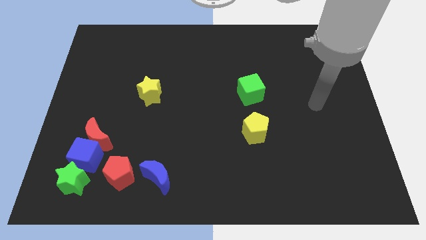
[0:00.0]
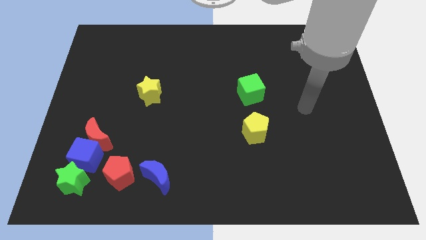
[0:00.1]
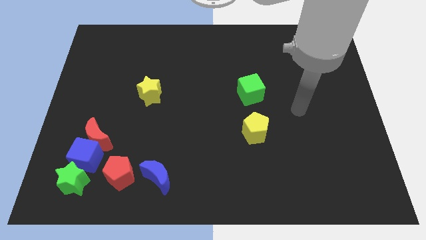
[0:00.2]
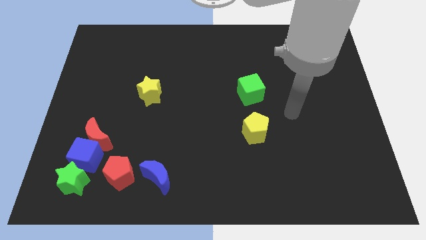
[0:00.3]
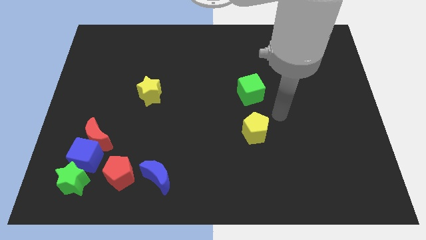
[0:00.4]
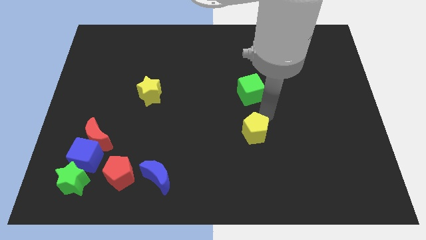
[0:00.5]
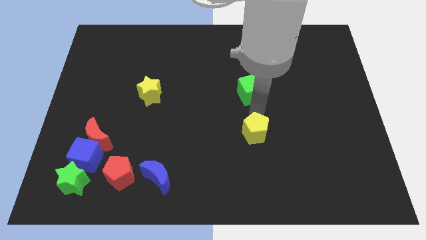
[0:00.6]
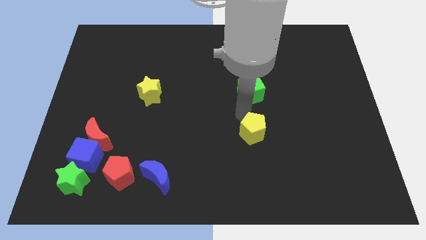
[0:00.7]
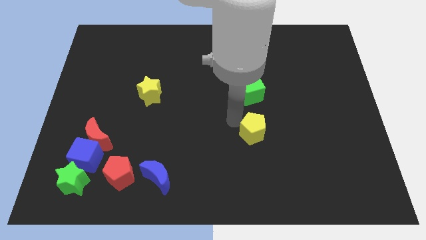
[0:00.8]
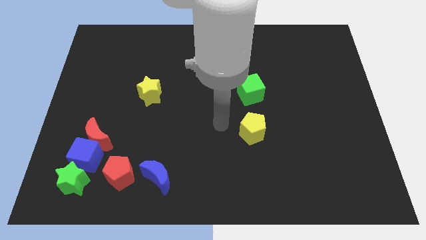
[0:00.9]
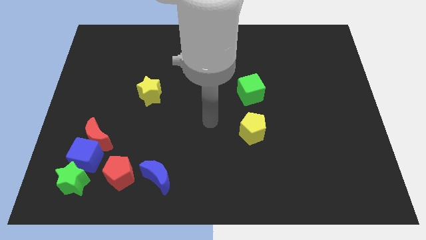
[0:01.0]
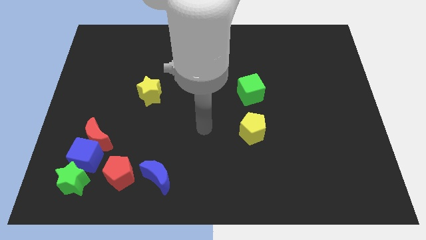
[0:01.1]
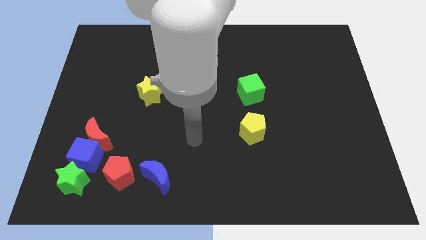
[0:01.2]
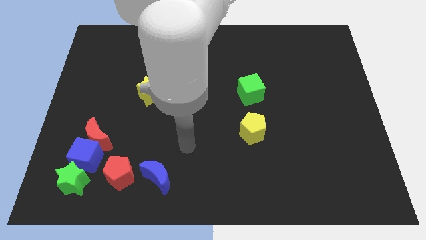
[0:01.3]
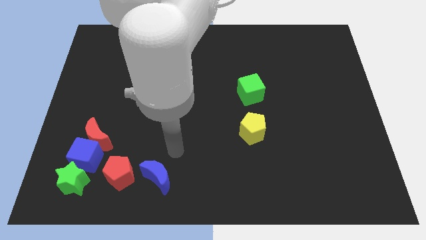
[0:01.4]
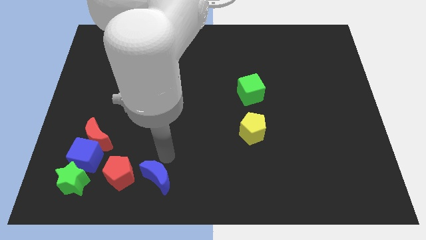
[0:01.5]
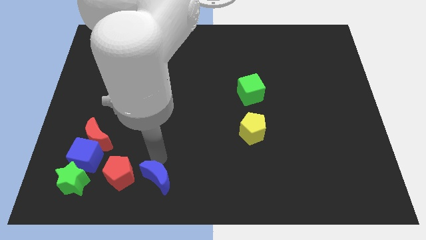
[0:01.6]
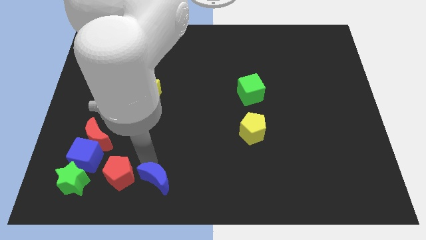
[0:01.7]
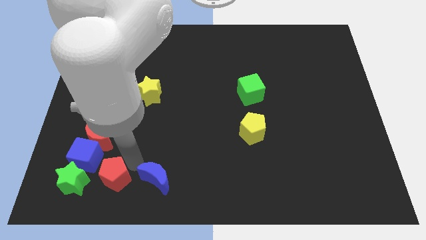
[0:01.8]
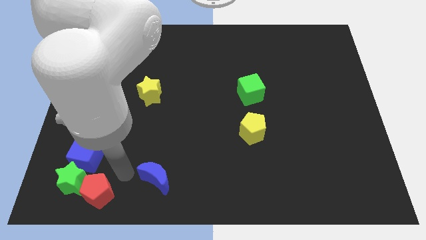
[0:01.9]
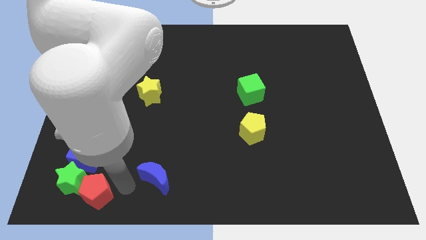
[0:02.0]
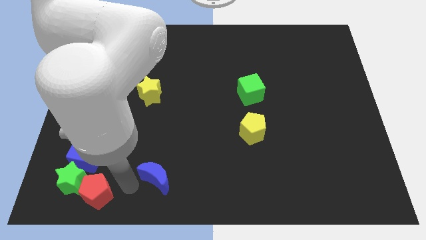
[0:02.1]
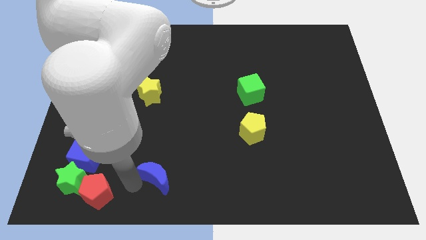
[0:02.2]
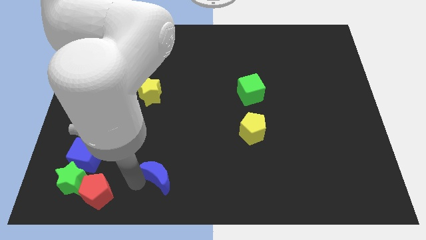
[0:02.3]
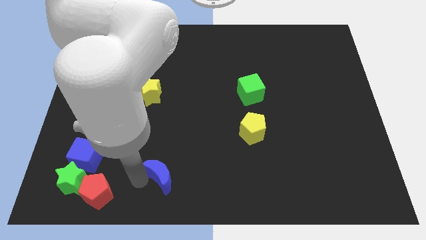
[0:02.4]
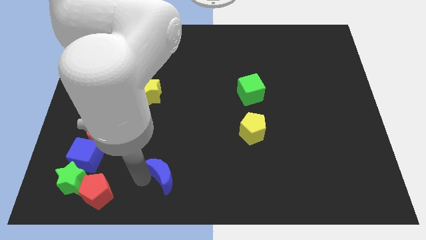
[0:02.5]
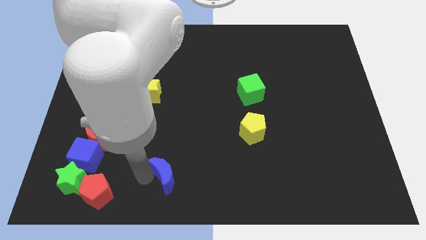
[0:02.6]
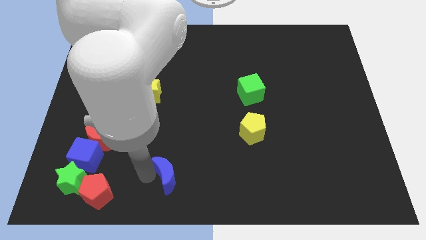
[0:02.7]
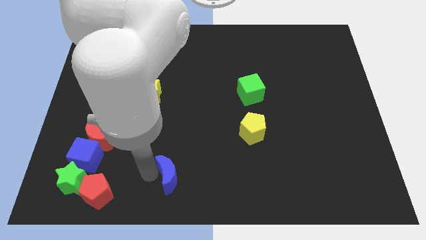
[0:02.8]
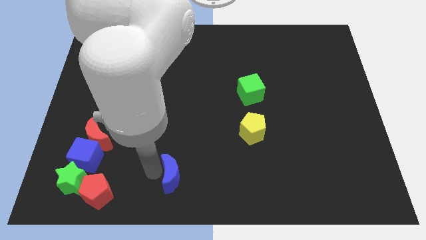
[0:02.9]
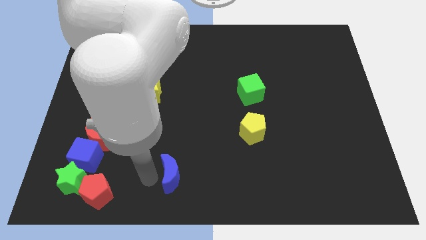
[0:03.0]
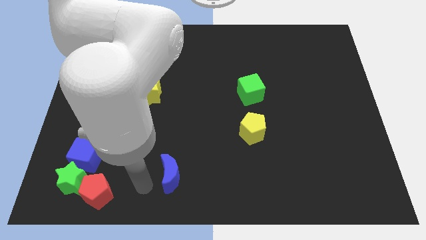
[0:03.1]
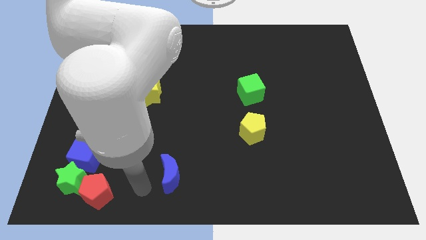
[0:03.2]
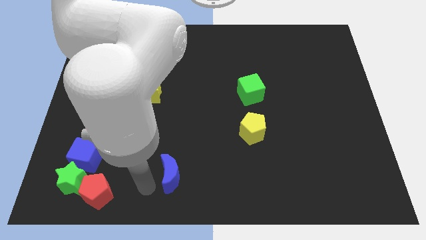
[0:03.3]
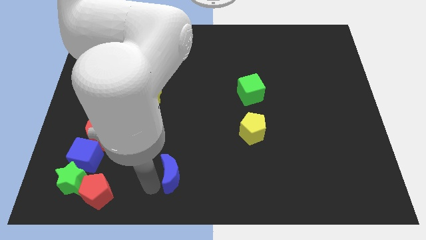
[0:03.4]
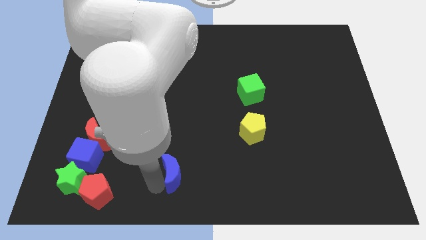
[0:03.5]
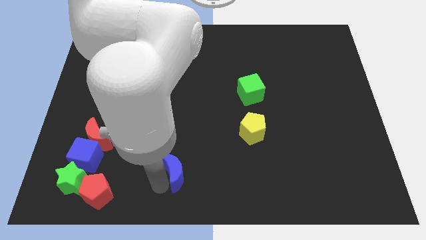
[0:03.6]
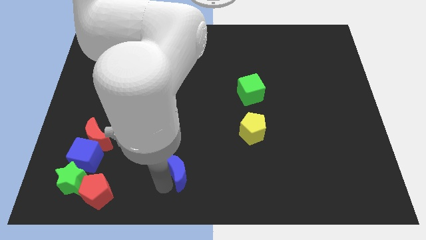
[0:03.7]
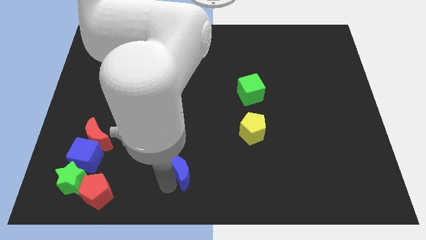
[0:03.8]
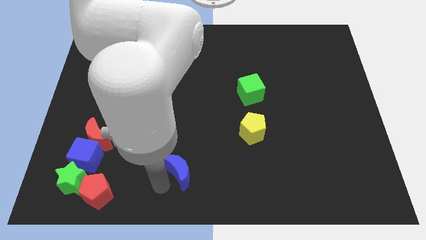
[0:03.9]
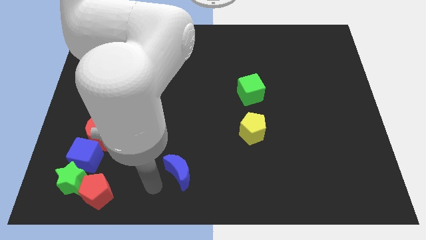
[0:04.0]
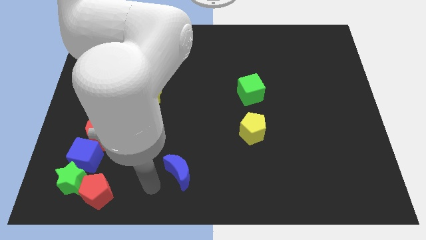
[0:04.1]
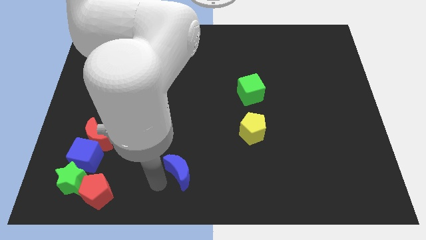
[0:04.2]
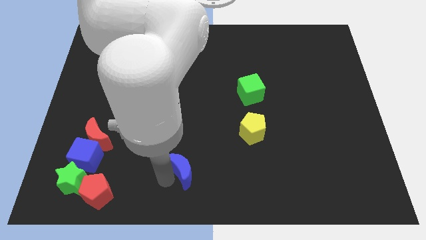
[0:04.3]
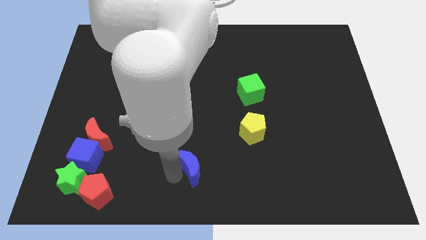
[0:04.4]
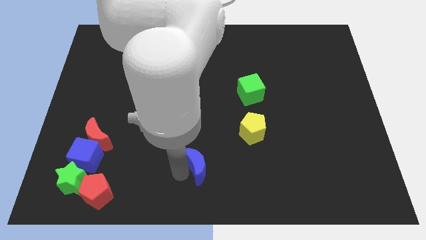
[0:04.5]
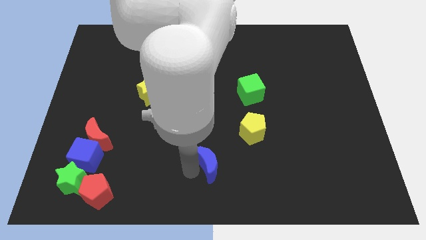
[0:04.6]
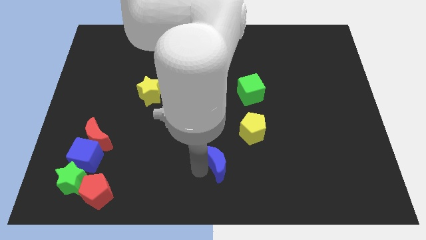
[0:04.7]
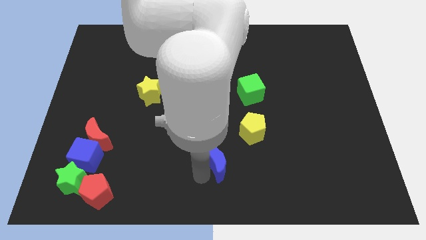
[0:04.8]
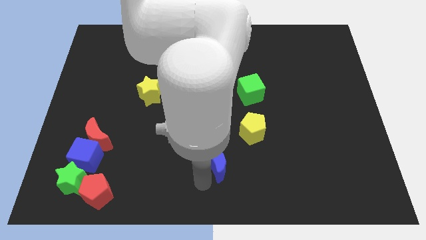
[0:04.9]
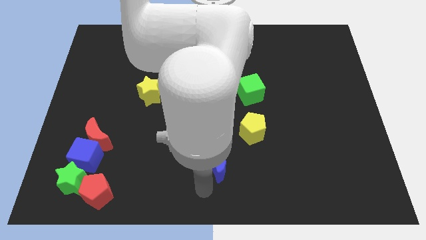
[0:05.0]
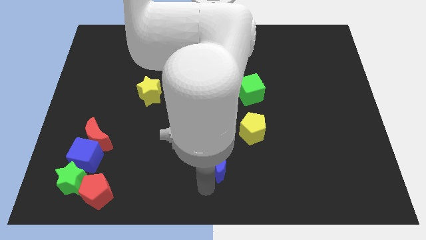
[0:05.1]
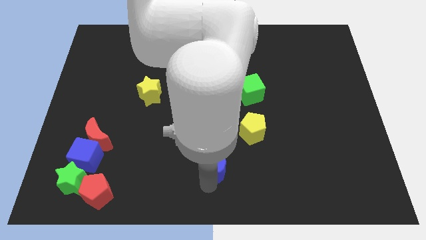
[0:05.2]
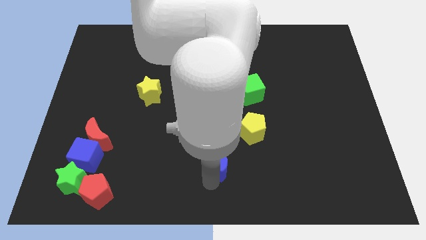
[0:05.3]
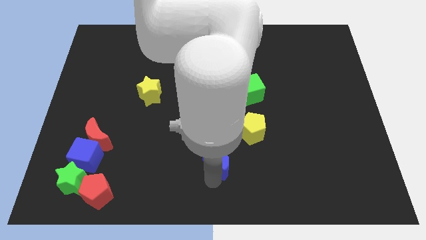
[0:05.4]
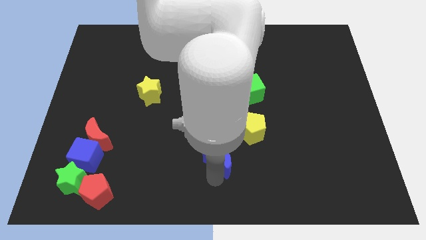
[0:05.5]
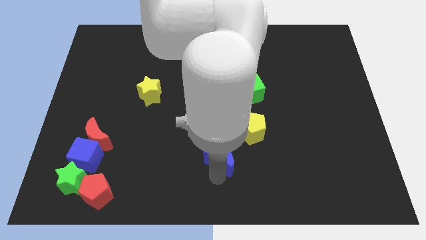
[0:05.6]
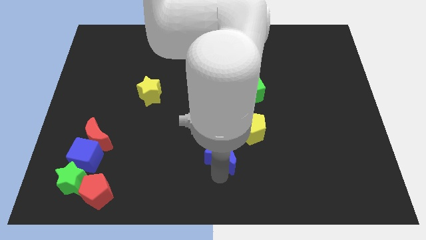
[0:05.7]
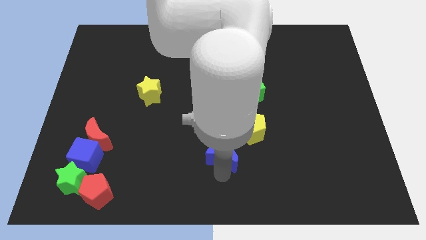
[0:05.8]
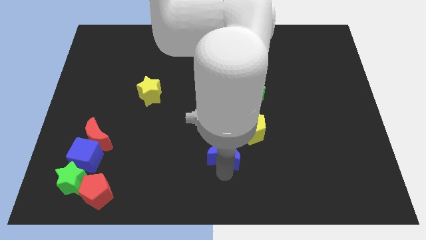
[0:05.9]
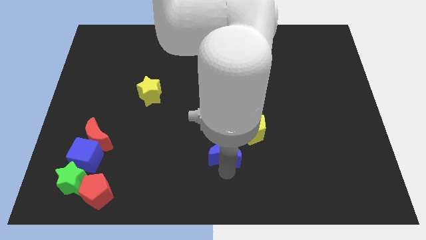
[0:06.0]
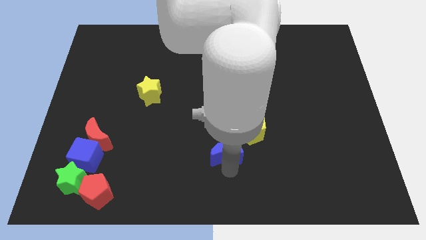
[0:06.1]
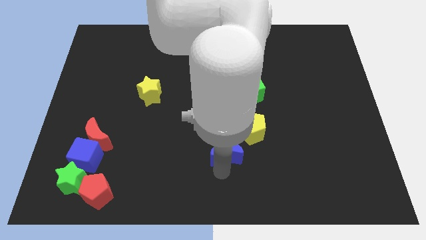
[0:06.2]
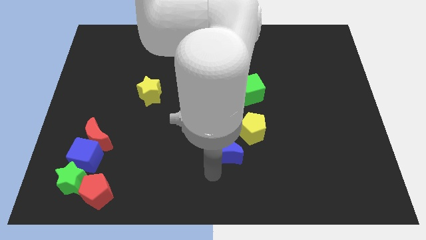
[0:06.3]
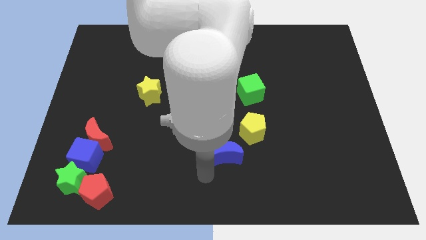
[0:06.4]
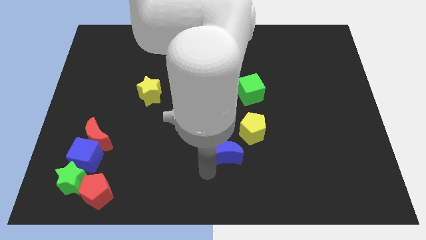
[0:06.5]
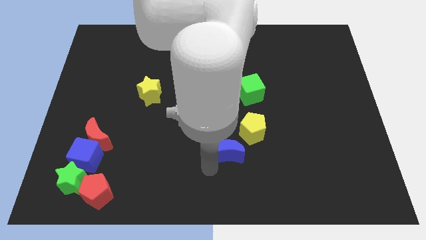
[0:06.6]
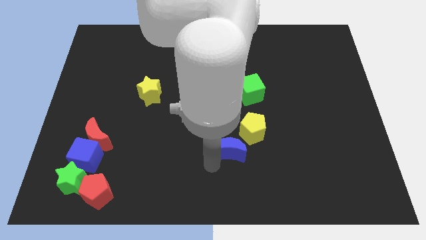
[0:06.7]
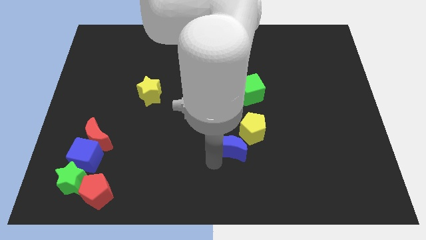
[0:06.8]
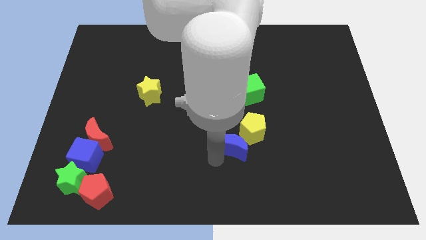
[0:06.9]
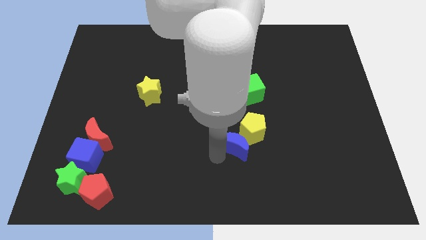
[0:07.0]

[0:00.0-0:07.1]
move the blue moon towards the yellow pentagon

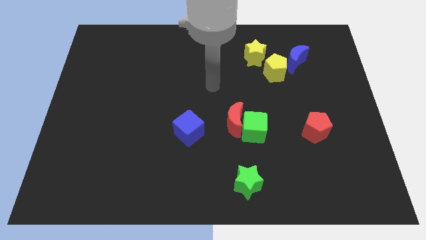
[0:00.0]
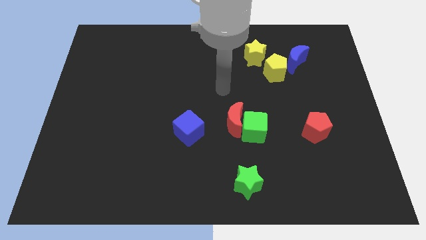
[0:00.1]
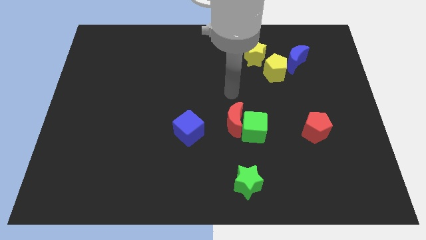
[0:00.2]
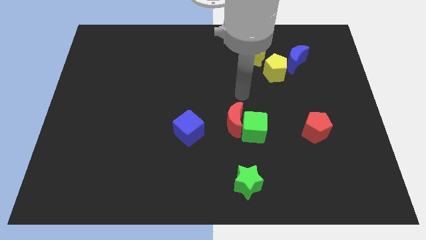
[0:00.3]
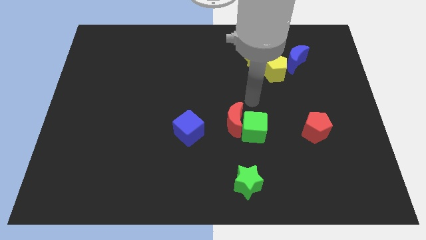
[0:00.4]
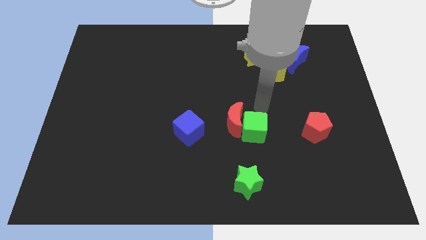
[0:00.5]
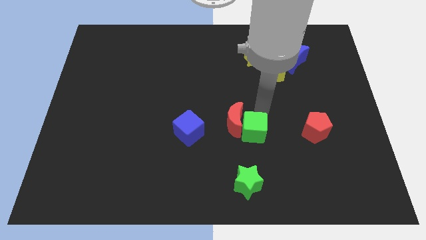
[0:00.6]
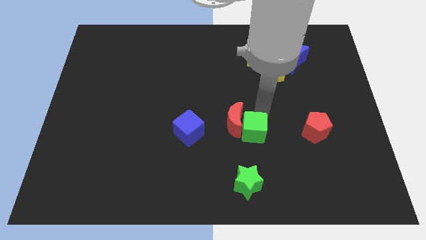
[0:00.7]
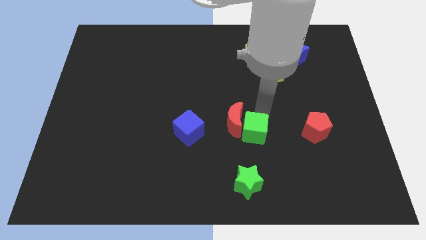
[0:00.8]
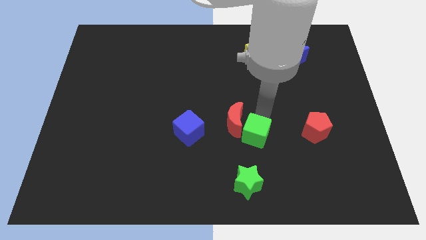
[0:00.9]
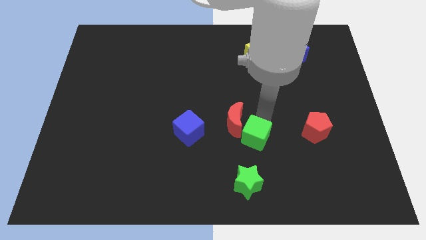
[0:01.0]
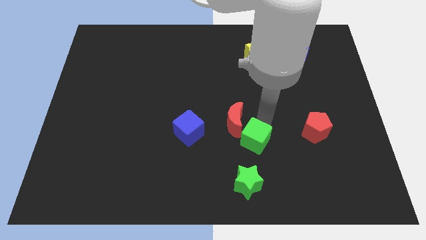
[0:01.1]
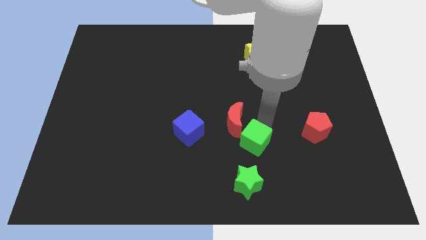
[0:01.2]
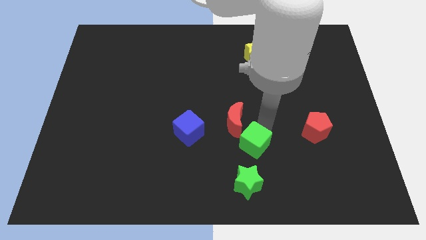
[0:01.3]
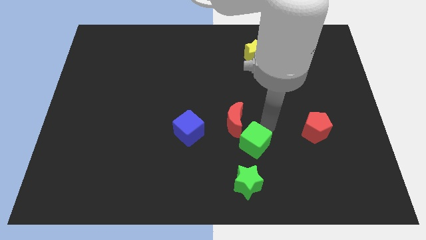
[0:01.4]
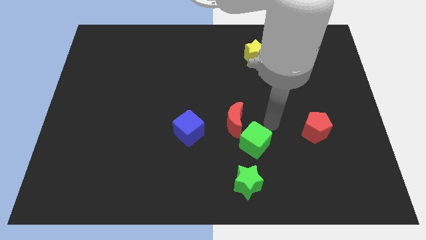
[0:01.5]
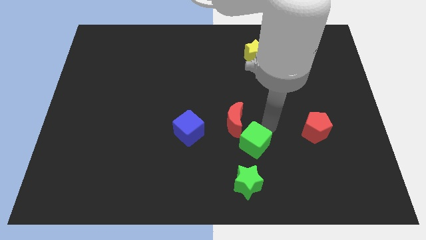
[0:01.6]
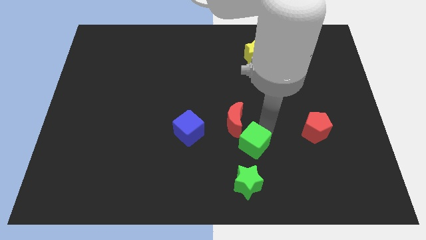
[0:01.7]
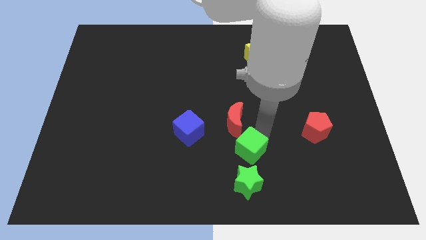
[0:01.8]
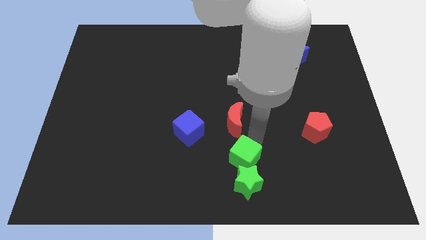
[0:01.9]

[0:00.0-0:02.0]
push the green cube to the green star
